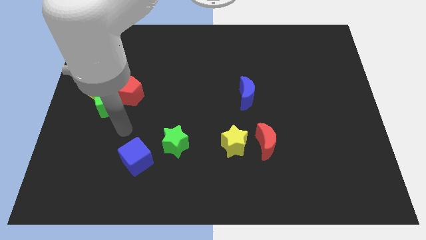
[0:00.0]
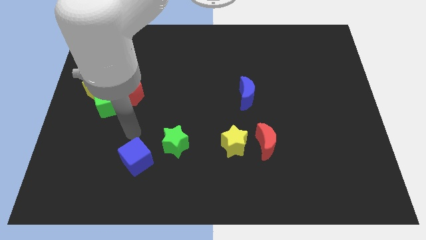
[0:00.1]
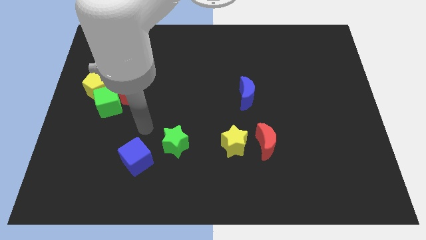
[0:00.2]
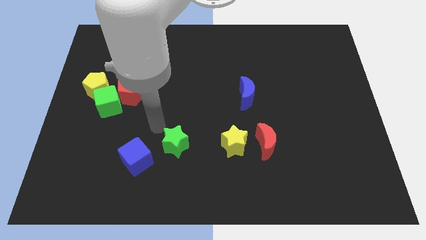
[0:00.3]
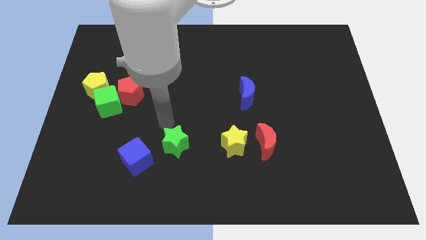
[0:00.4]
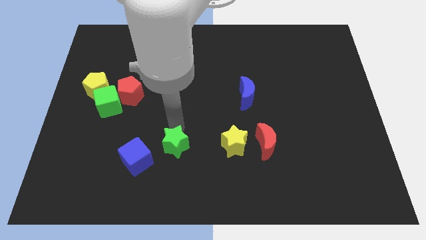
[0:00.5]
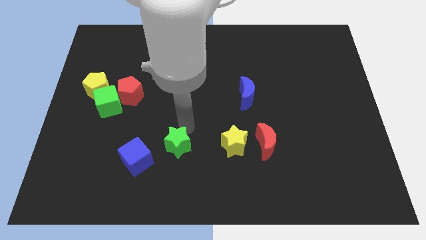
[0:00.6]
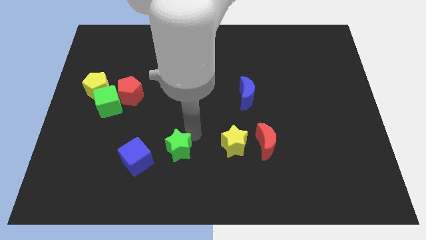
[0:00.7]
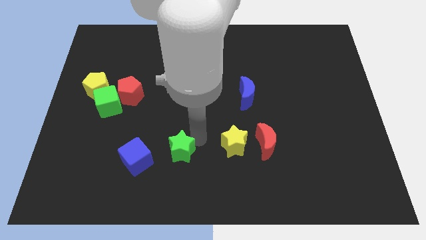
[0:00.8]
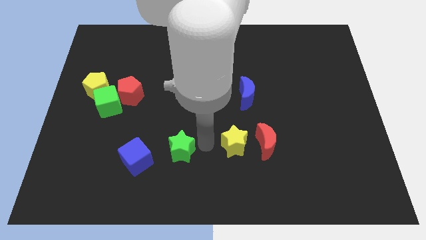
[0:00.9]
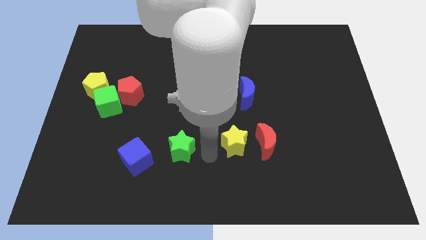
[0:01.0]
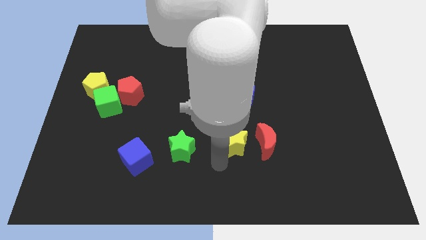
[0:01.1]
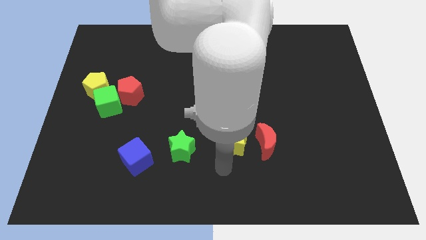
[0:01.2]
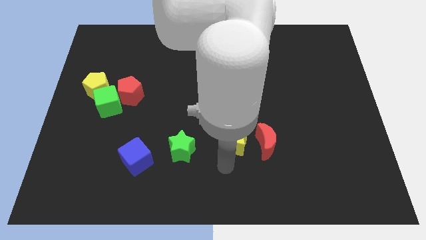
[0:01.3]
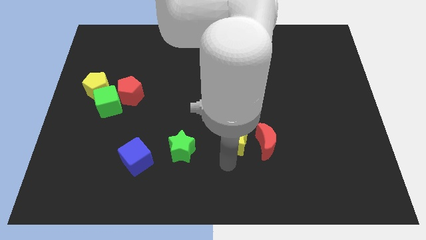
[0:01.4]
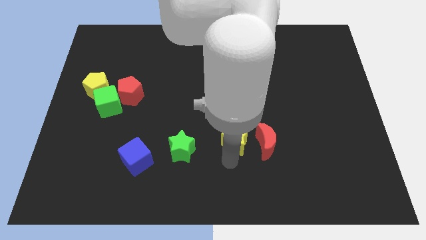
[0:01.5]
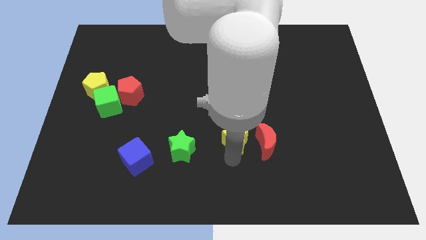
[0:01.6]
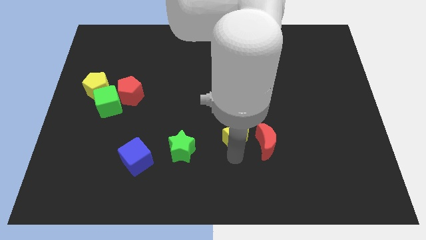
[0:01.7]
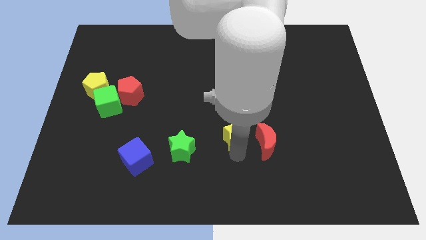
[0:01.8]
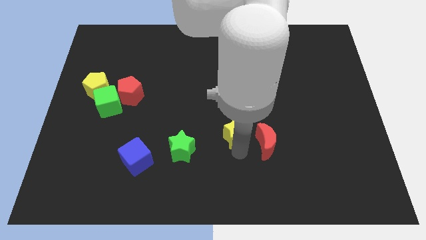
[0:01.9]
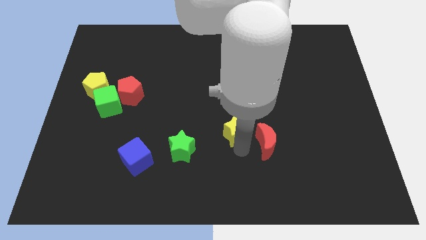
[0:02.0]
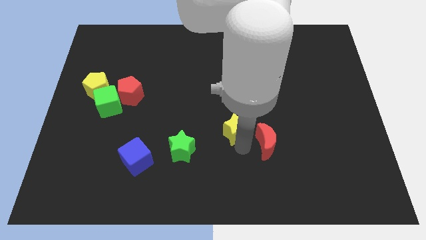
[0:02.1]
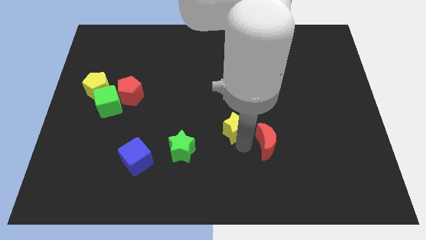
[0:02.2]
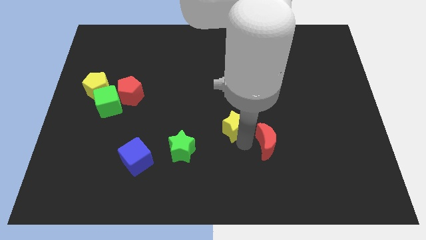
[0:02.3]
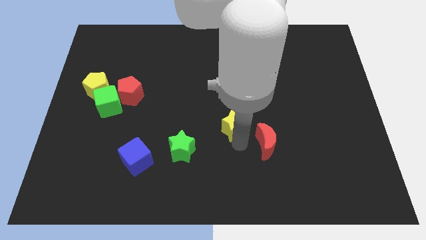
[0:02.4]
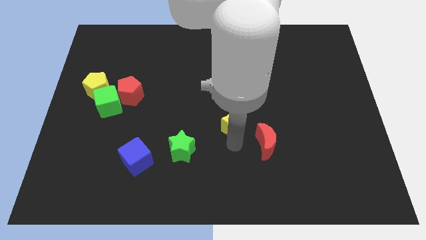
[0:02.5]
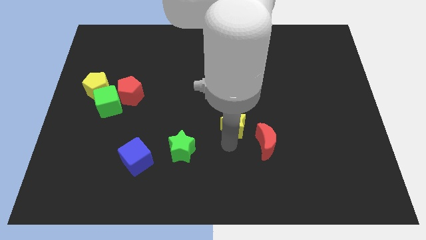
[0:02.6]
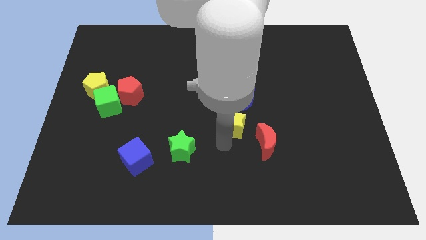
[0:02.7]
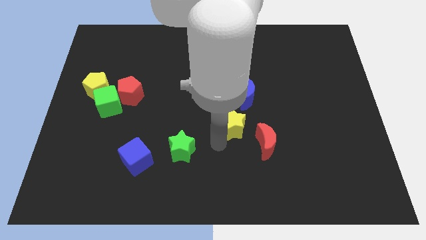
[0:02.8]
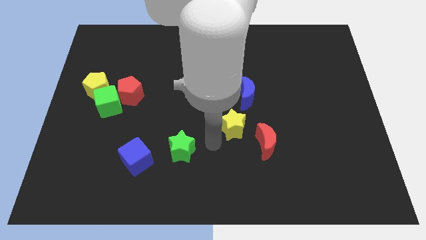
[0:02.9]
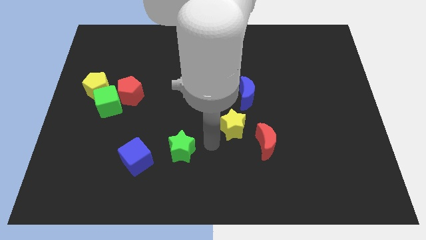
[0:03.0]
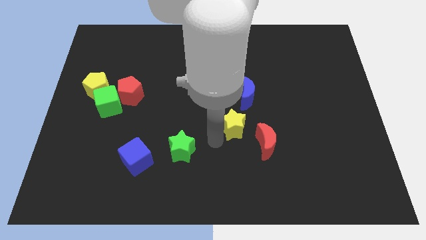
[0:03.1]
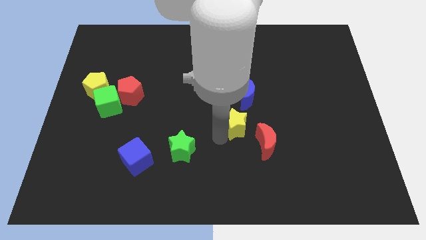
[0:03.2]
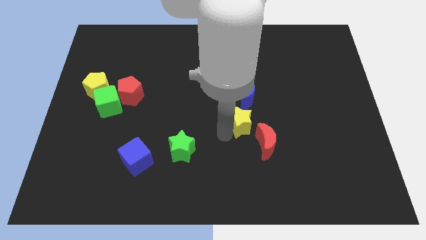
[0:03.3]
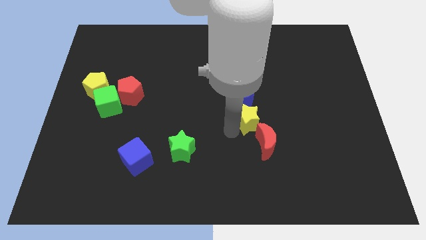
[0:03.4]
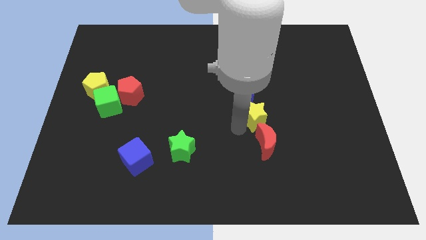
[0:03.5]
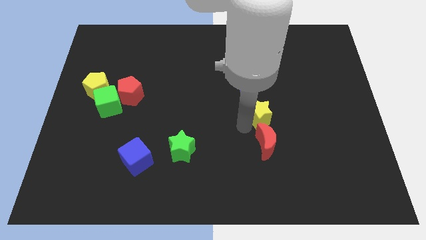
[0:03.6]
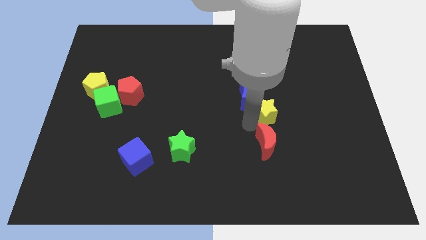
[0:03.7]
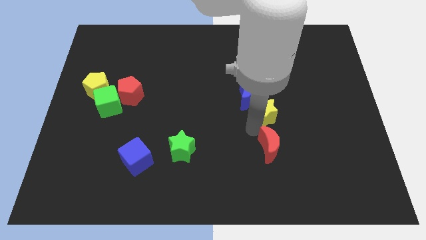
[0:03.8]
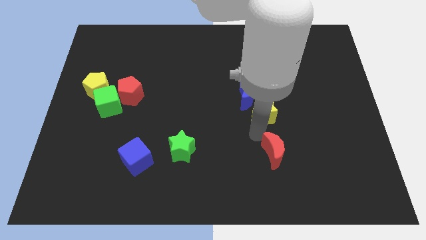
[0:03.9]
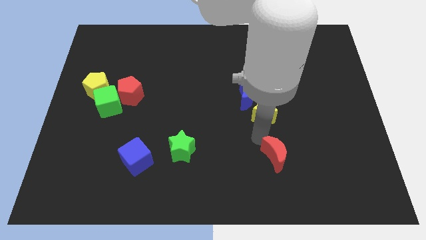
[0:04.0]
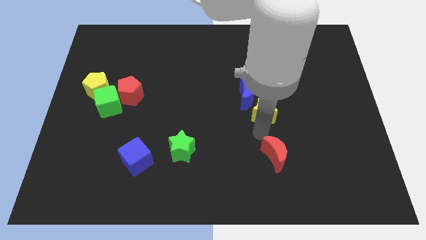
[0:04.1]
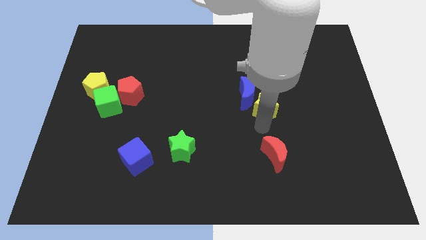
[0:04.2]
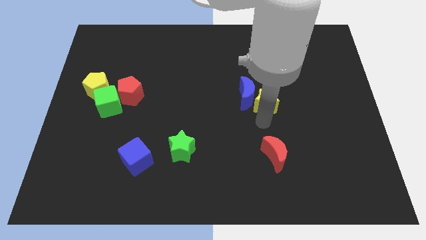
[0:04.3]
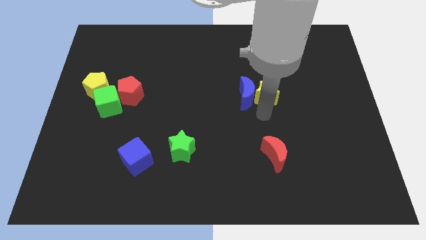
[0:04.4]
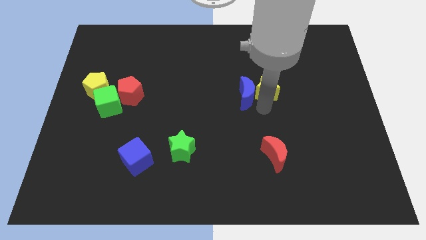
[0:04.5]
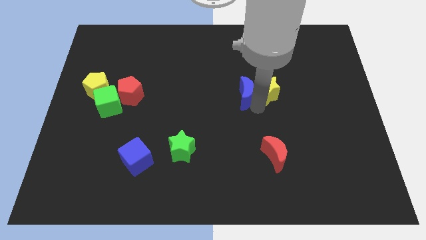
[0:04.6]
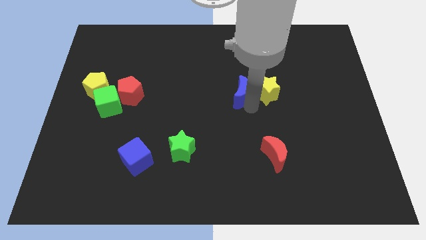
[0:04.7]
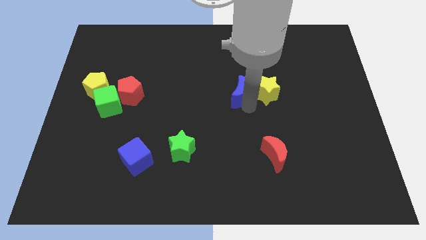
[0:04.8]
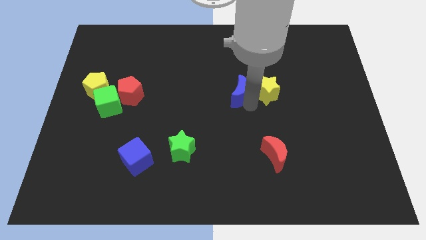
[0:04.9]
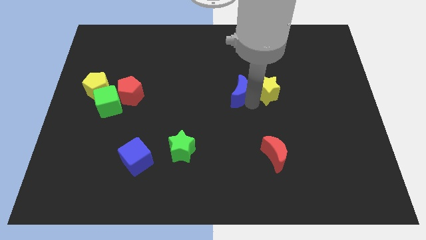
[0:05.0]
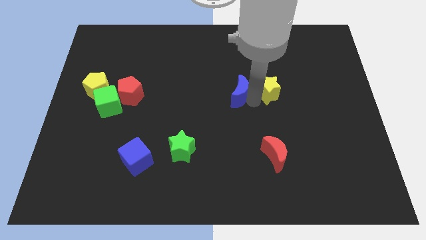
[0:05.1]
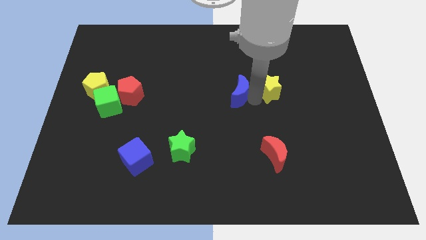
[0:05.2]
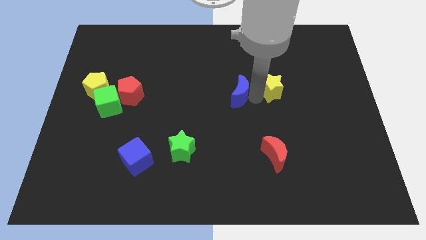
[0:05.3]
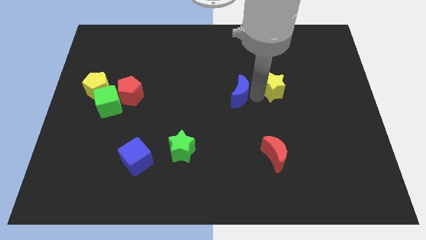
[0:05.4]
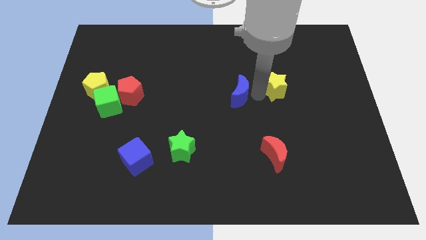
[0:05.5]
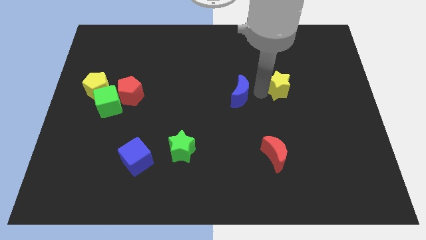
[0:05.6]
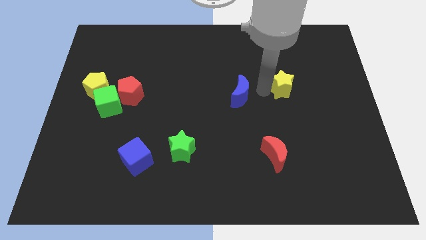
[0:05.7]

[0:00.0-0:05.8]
slide the yellow star up and right

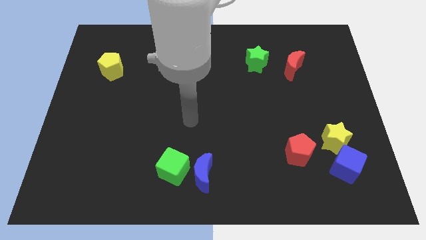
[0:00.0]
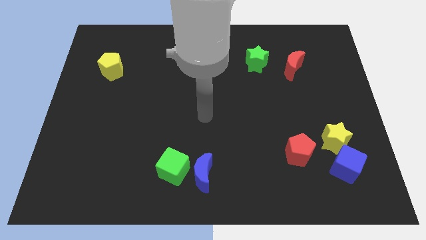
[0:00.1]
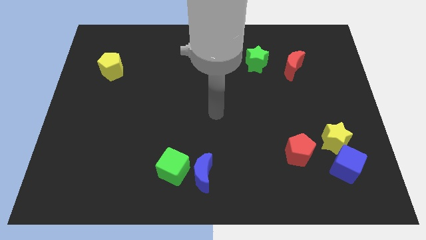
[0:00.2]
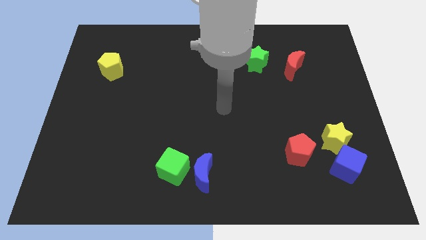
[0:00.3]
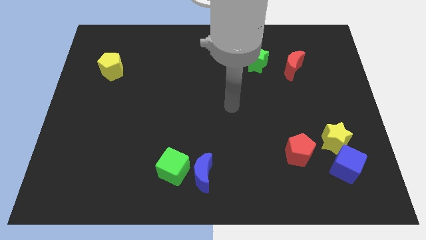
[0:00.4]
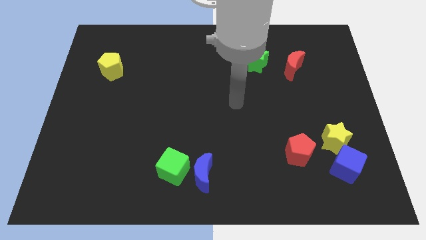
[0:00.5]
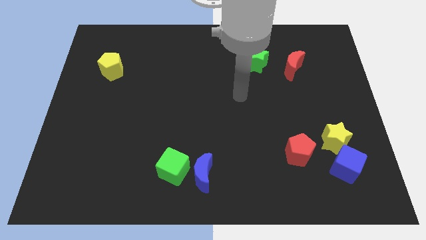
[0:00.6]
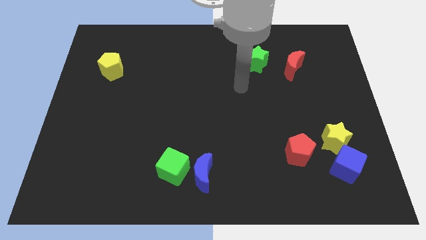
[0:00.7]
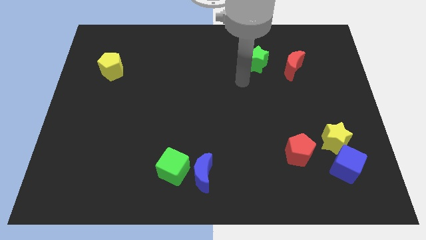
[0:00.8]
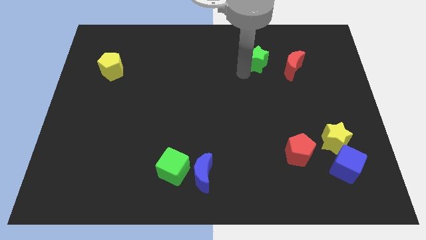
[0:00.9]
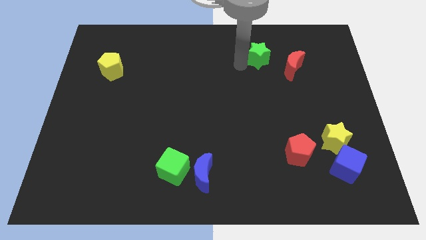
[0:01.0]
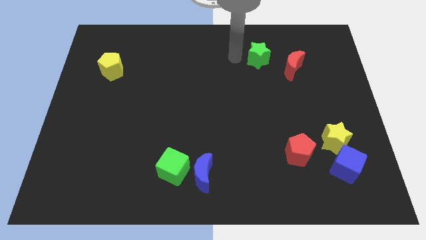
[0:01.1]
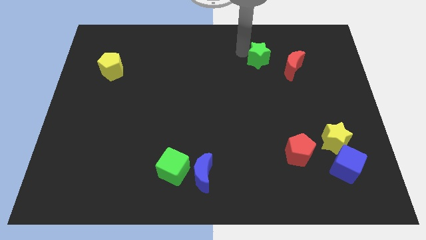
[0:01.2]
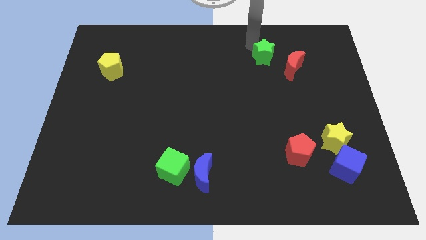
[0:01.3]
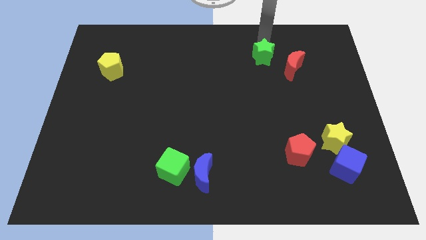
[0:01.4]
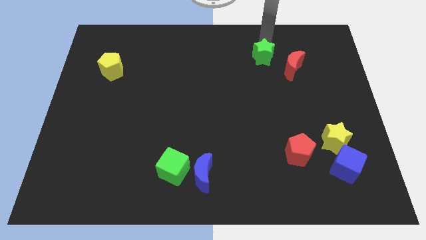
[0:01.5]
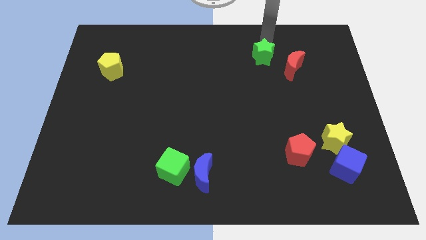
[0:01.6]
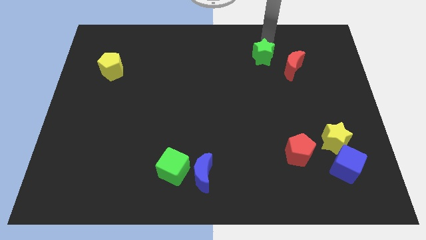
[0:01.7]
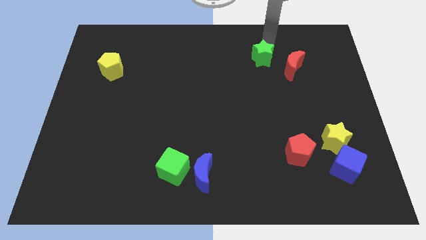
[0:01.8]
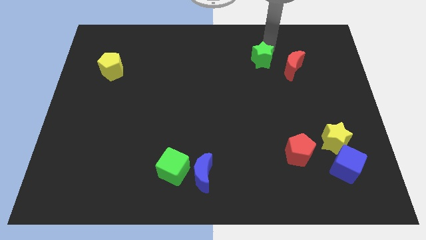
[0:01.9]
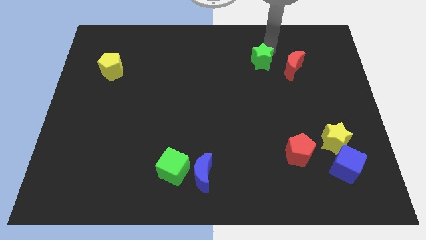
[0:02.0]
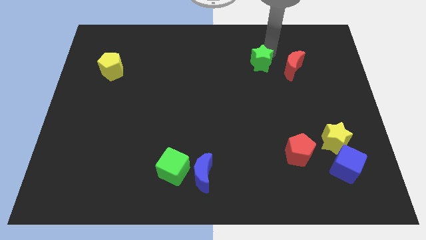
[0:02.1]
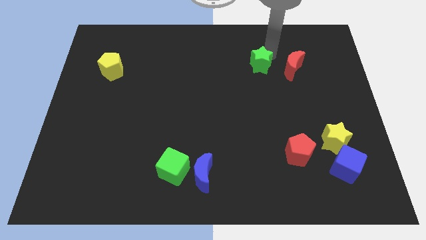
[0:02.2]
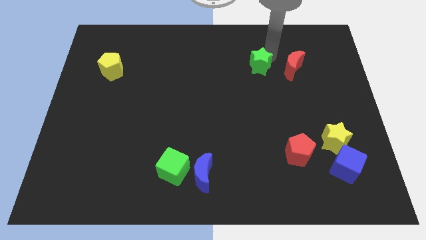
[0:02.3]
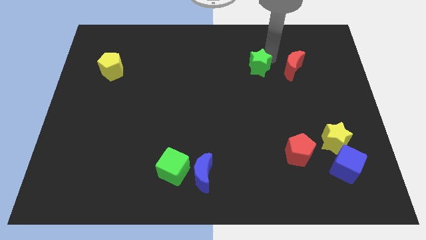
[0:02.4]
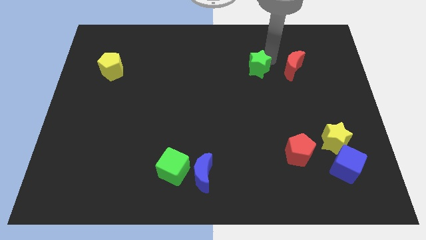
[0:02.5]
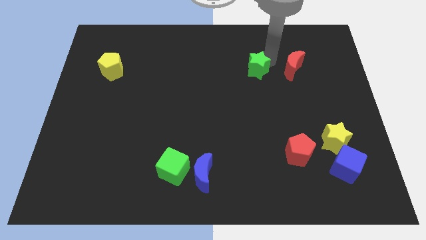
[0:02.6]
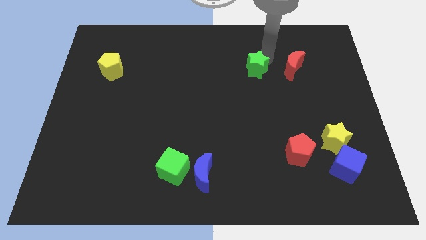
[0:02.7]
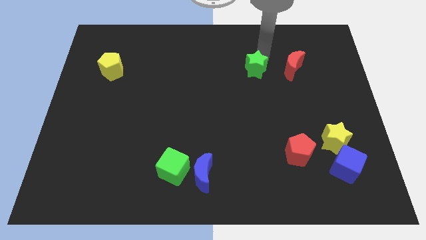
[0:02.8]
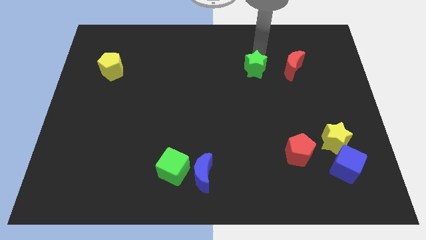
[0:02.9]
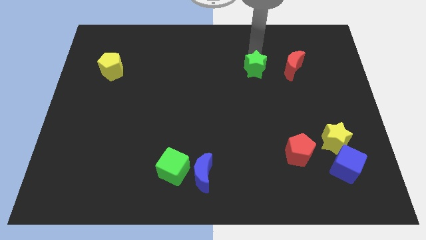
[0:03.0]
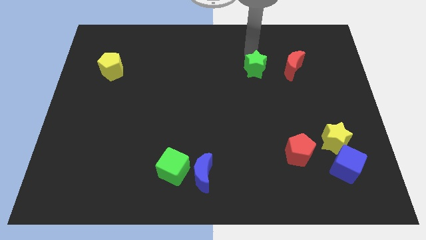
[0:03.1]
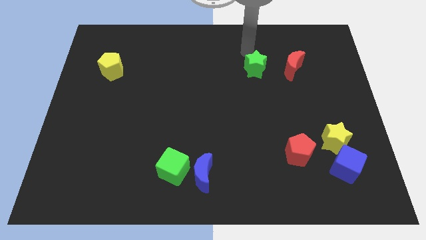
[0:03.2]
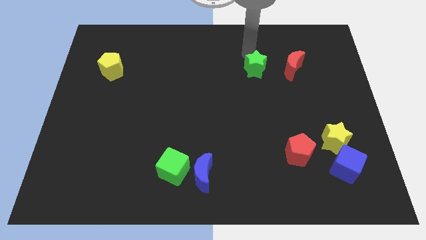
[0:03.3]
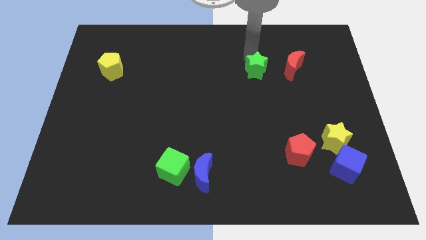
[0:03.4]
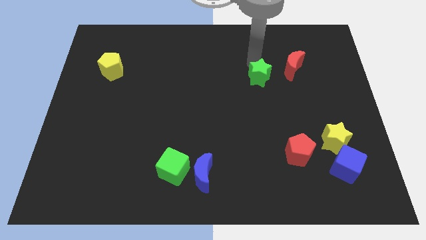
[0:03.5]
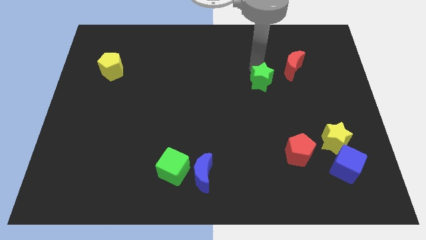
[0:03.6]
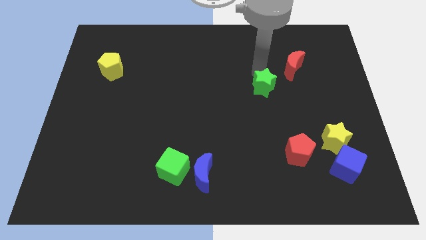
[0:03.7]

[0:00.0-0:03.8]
slightly slide the green star downwards
